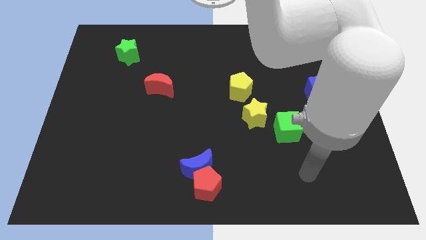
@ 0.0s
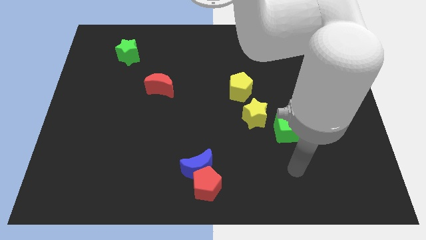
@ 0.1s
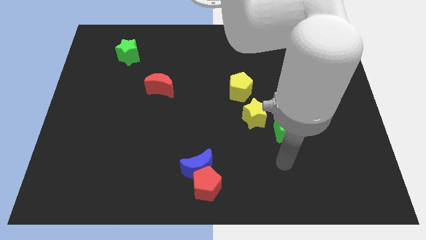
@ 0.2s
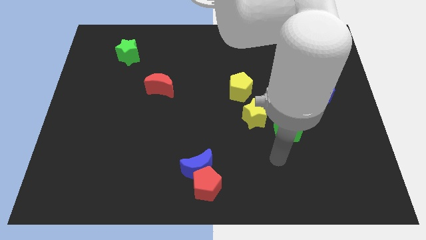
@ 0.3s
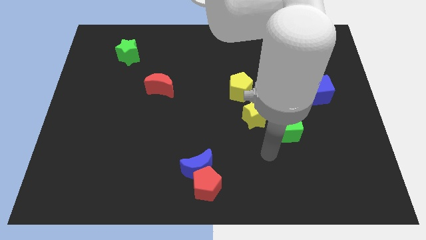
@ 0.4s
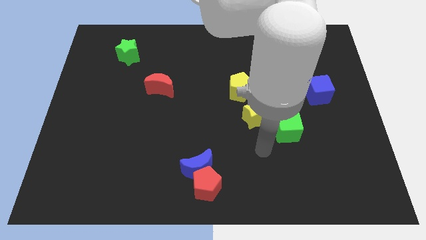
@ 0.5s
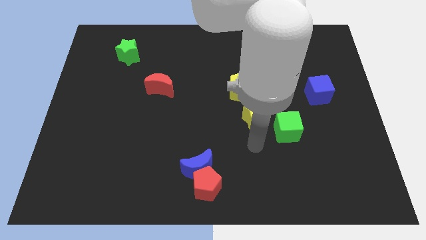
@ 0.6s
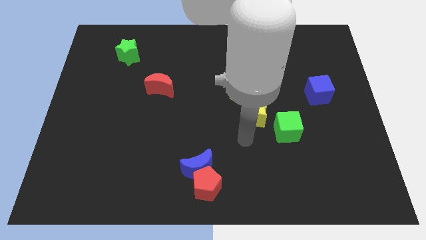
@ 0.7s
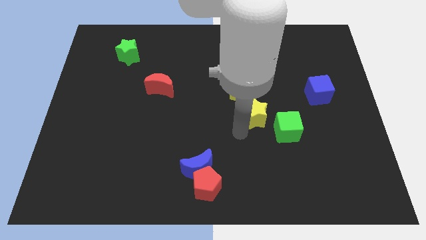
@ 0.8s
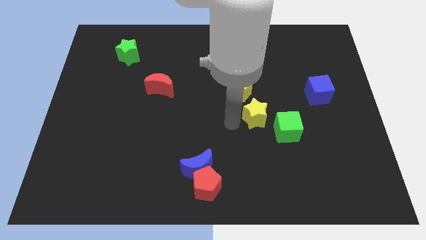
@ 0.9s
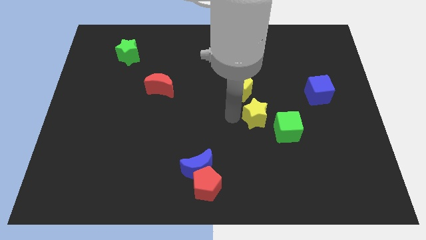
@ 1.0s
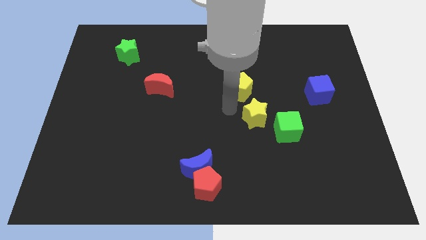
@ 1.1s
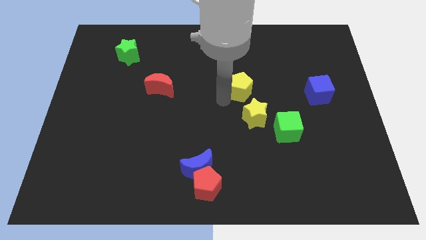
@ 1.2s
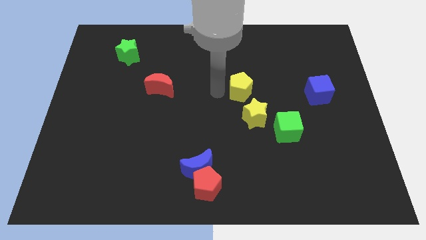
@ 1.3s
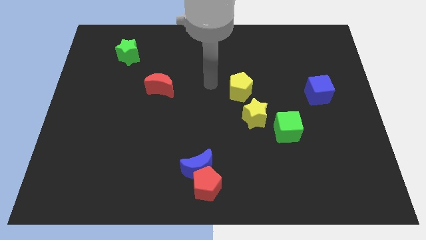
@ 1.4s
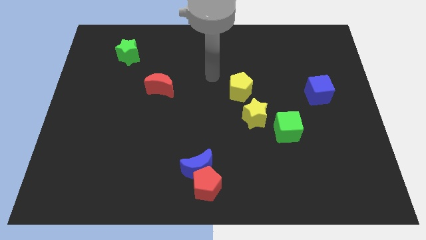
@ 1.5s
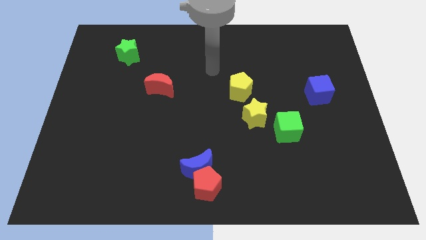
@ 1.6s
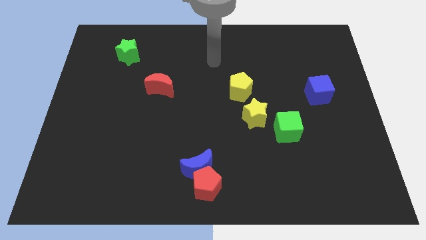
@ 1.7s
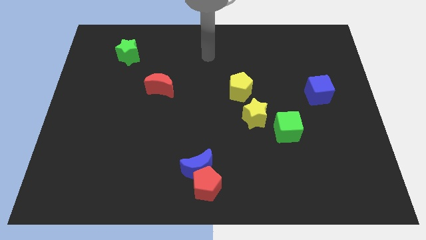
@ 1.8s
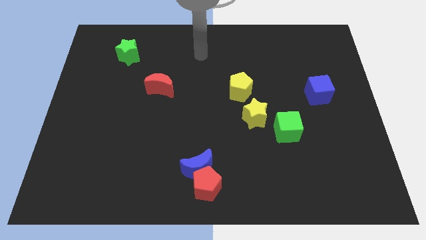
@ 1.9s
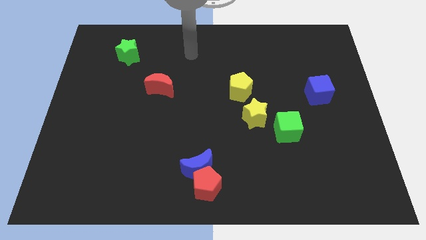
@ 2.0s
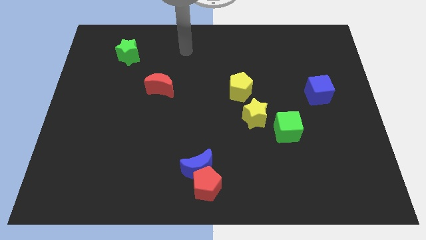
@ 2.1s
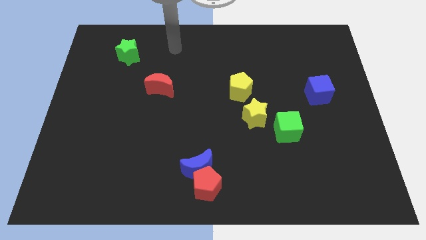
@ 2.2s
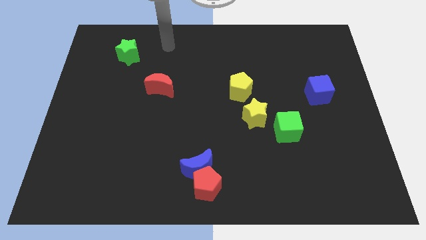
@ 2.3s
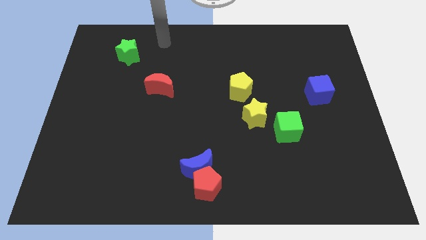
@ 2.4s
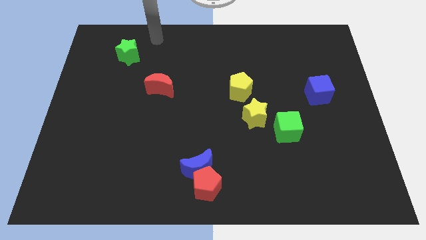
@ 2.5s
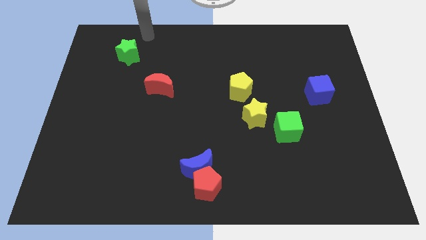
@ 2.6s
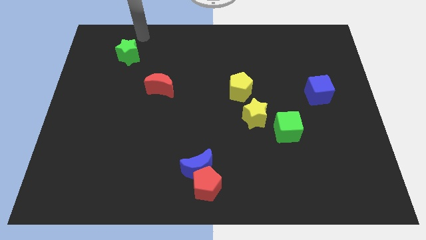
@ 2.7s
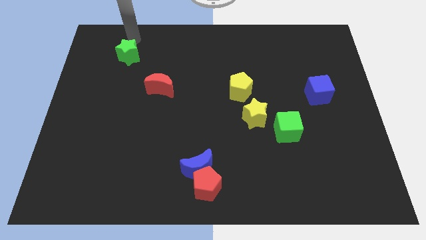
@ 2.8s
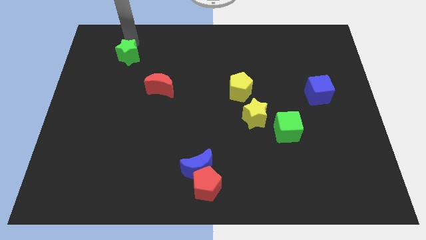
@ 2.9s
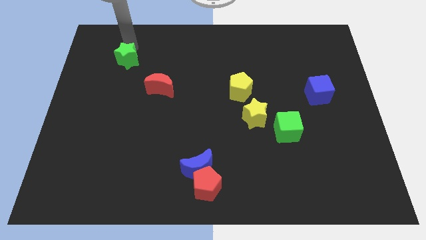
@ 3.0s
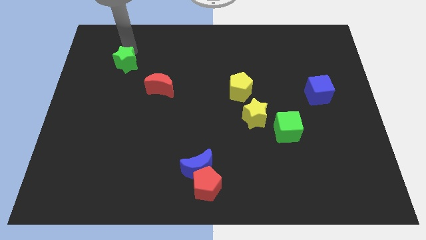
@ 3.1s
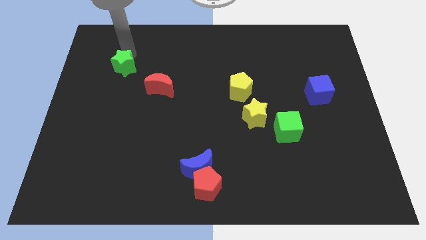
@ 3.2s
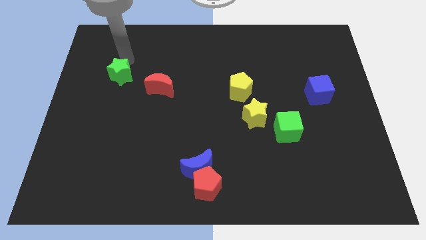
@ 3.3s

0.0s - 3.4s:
slide the green star downwards a little bit

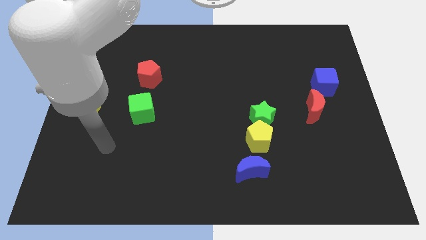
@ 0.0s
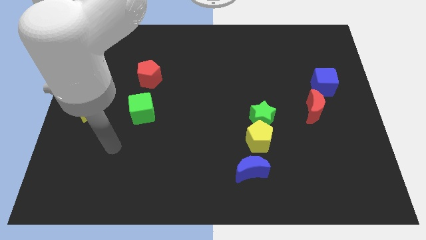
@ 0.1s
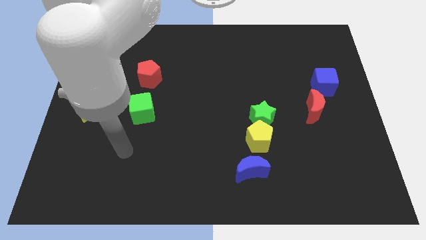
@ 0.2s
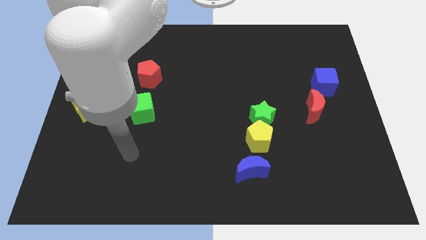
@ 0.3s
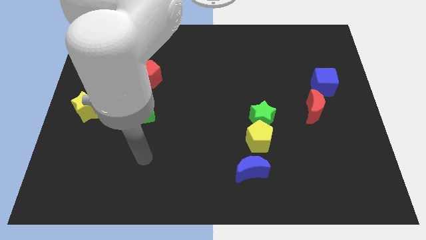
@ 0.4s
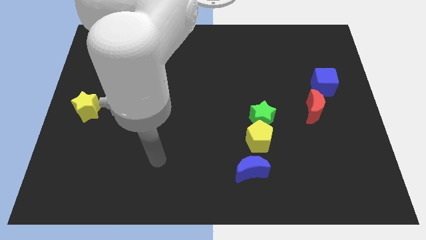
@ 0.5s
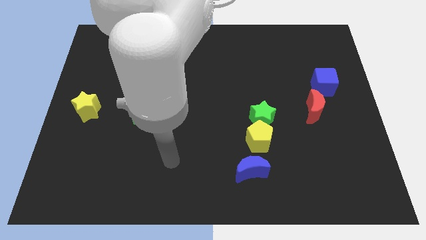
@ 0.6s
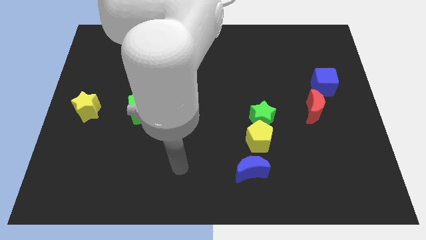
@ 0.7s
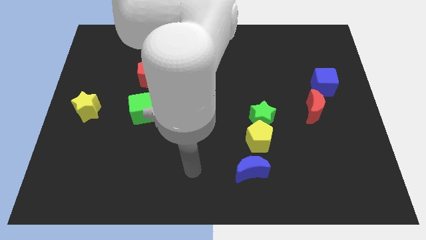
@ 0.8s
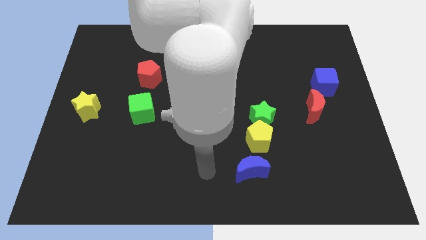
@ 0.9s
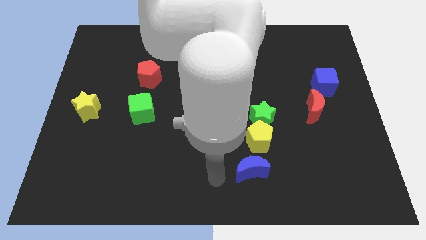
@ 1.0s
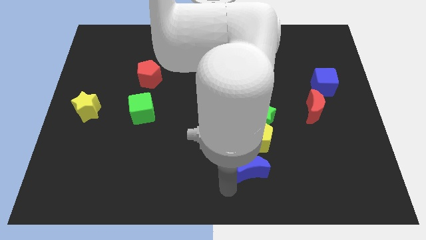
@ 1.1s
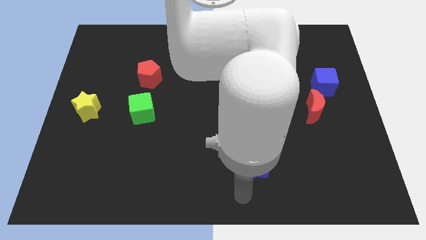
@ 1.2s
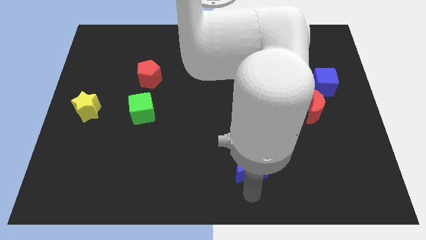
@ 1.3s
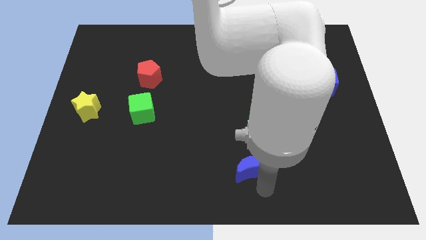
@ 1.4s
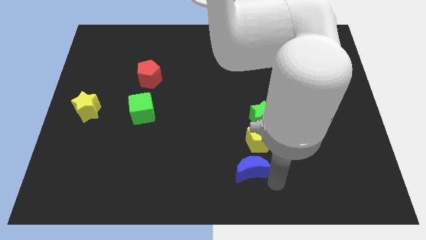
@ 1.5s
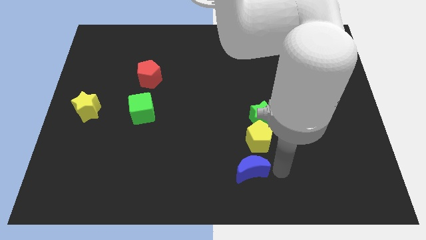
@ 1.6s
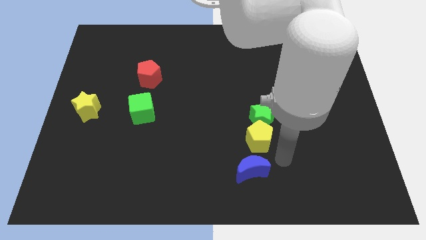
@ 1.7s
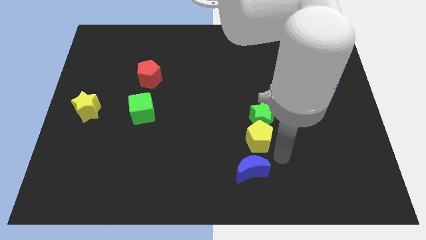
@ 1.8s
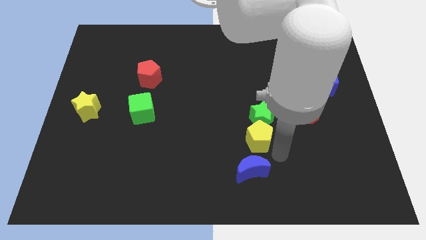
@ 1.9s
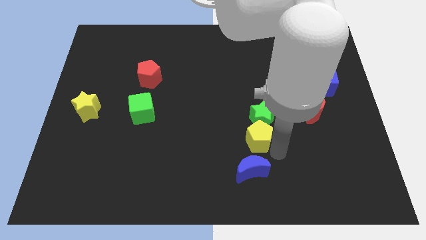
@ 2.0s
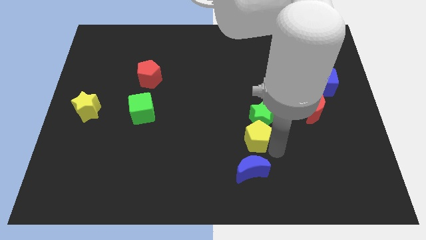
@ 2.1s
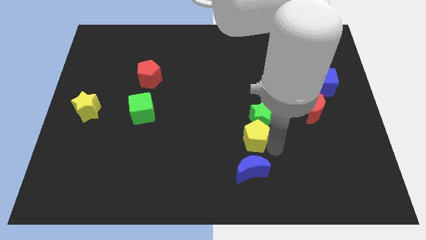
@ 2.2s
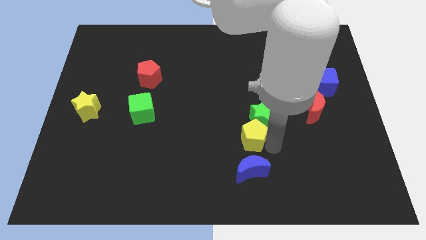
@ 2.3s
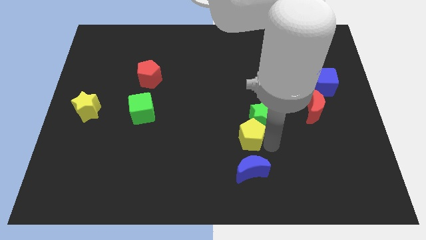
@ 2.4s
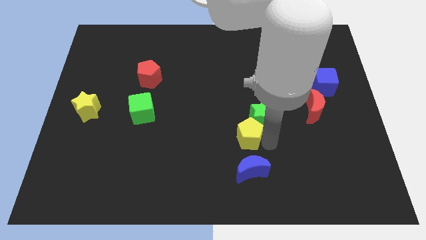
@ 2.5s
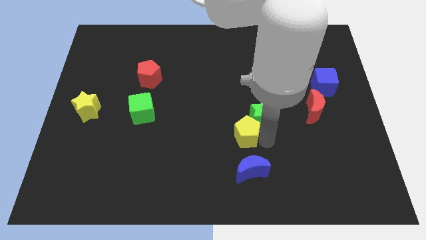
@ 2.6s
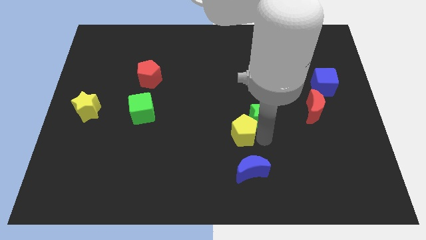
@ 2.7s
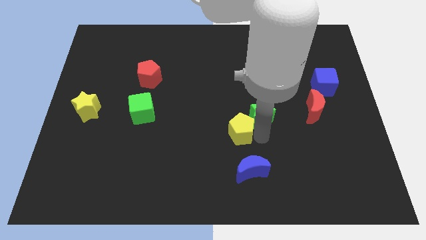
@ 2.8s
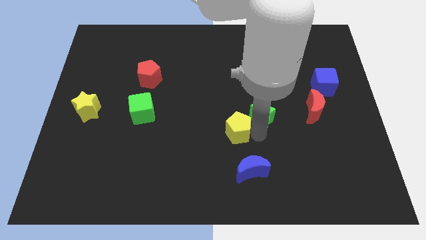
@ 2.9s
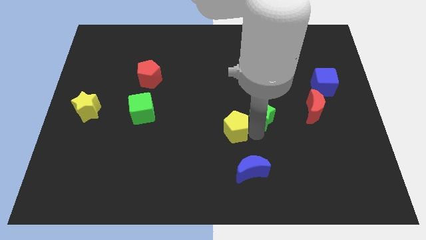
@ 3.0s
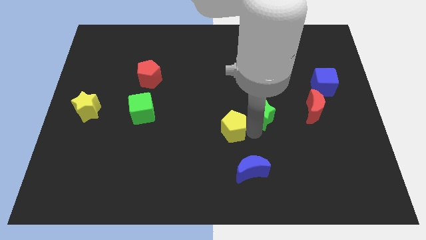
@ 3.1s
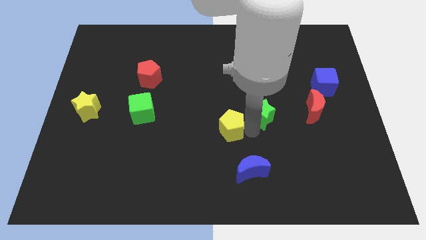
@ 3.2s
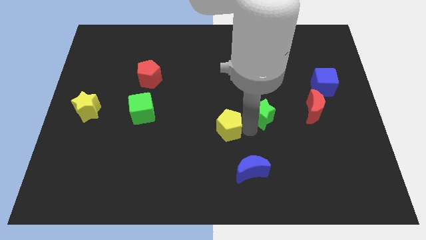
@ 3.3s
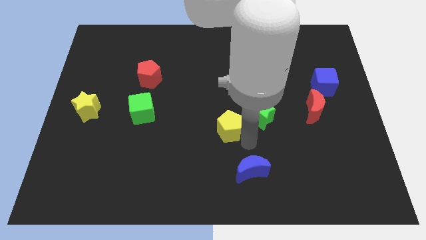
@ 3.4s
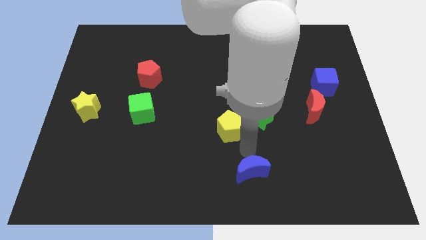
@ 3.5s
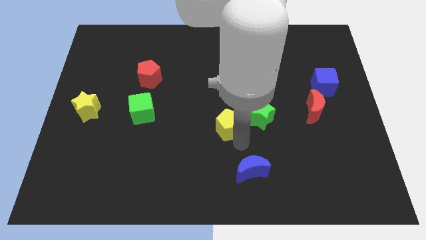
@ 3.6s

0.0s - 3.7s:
slightly slide the yellow pentagon upwards and to the left

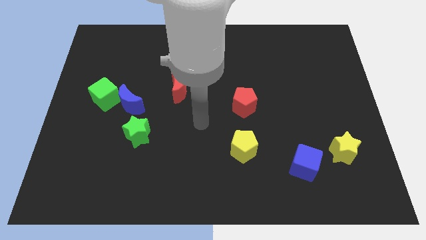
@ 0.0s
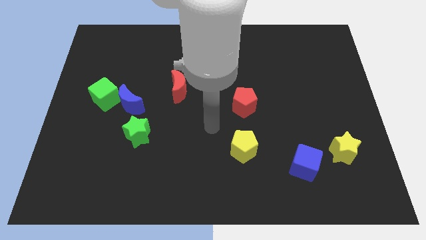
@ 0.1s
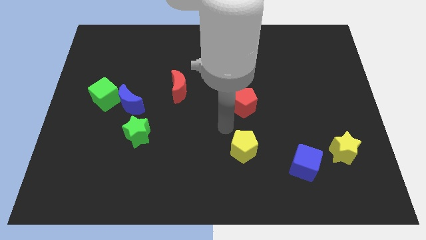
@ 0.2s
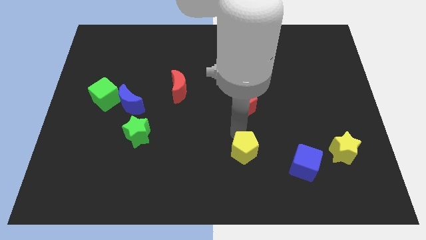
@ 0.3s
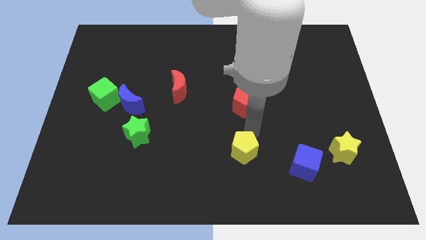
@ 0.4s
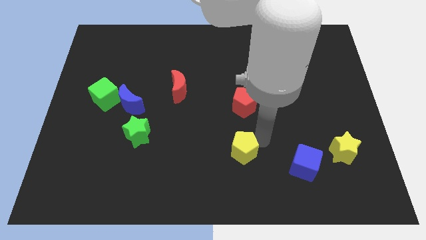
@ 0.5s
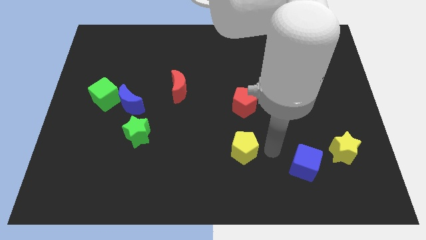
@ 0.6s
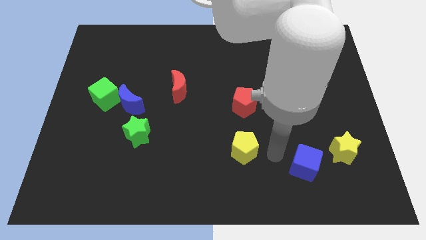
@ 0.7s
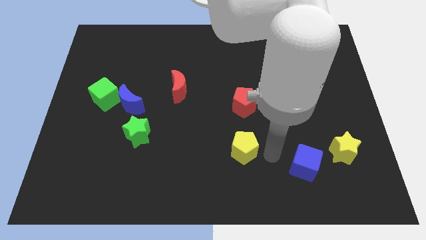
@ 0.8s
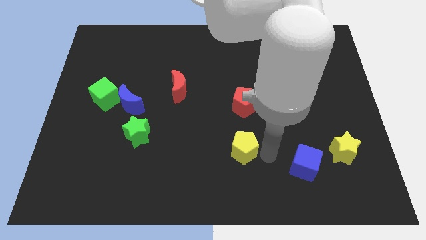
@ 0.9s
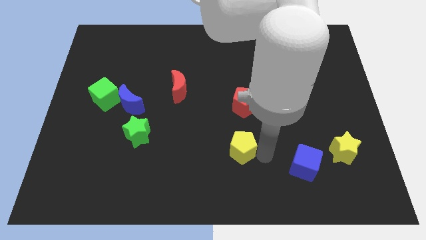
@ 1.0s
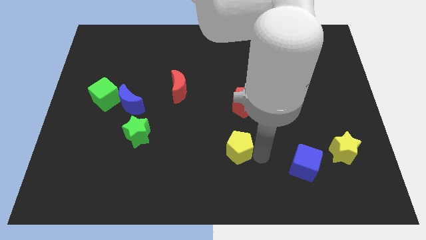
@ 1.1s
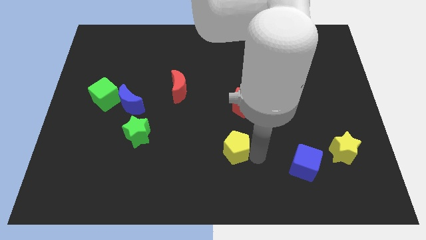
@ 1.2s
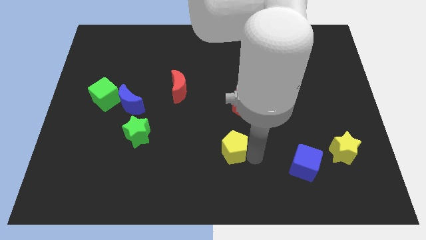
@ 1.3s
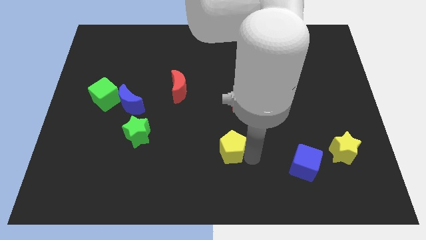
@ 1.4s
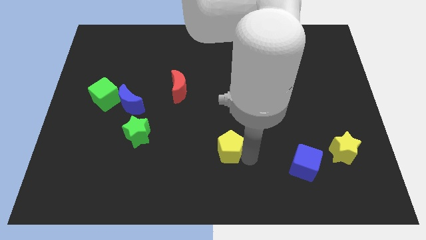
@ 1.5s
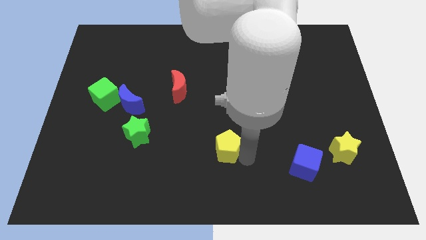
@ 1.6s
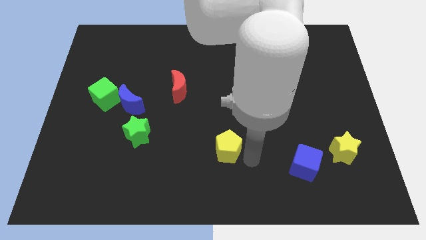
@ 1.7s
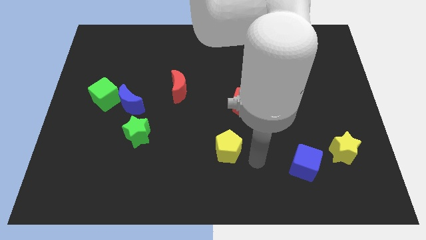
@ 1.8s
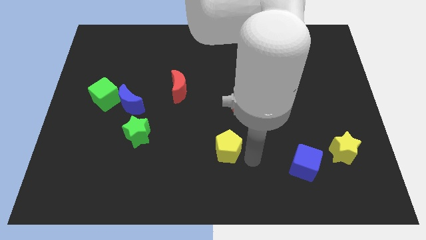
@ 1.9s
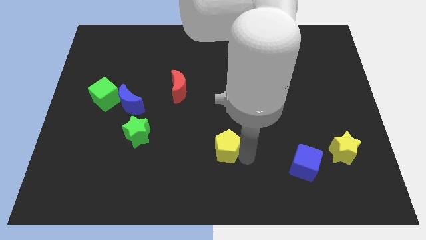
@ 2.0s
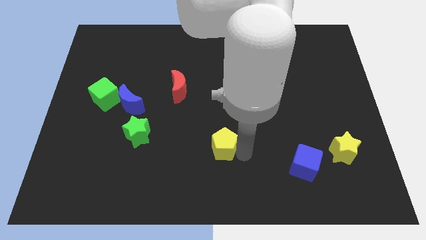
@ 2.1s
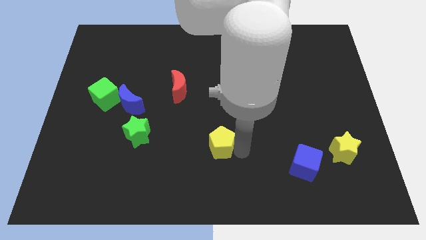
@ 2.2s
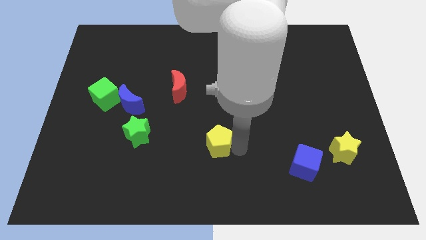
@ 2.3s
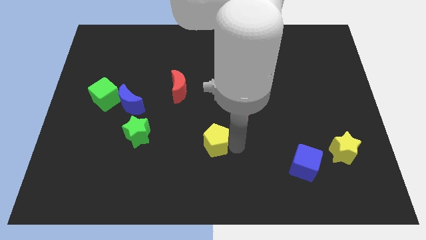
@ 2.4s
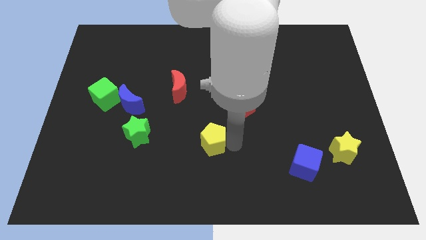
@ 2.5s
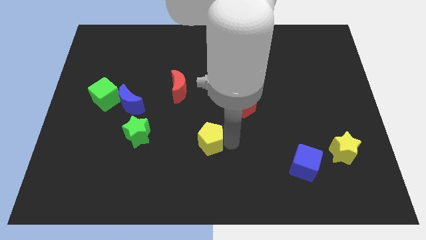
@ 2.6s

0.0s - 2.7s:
push the yellow pentagon somewhat left
